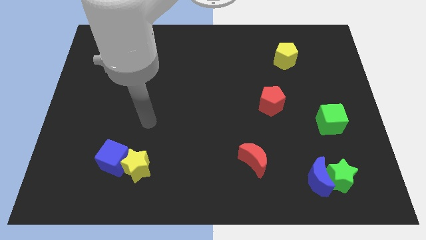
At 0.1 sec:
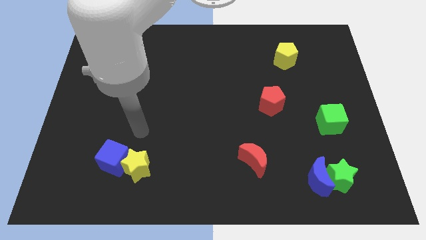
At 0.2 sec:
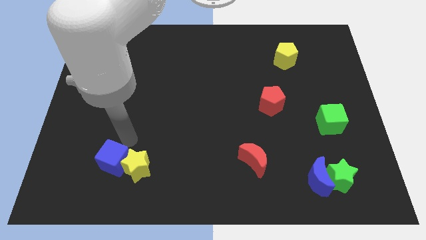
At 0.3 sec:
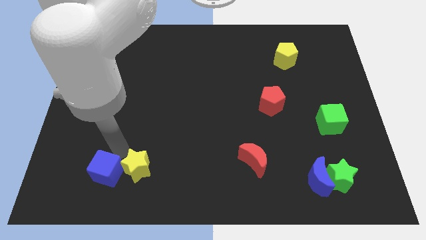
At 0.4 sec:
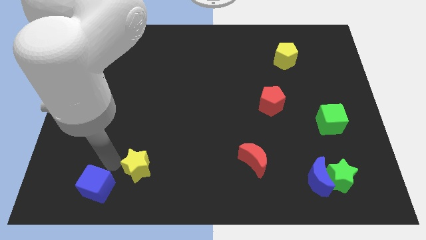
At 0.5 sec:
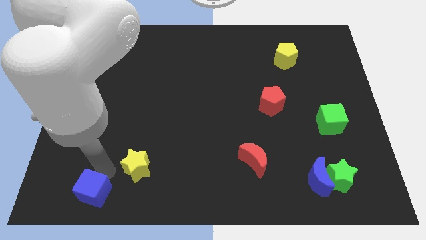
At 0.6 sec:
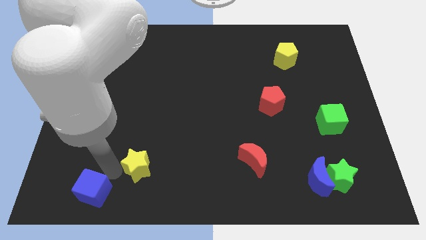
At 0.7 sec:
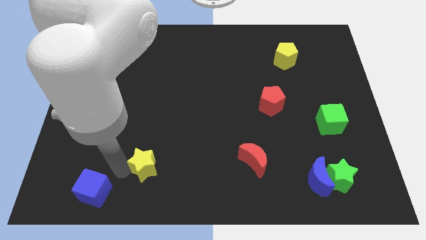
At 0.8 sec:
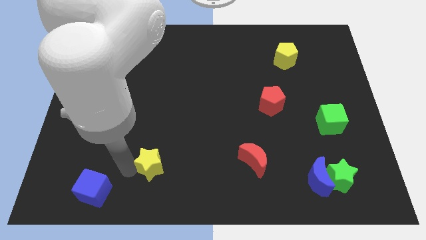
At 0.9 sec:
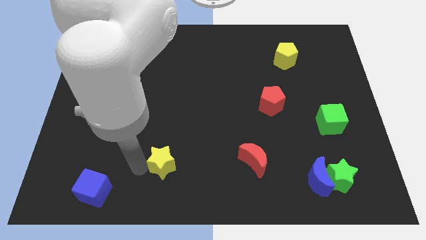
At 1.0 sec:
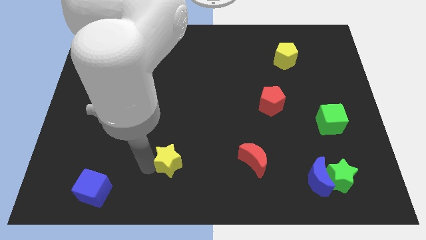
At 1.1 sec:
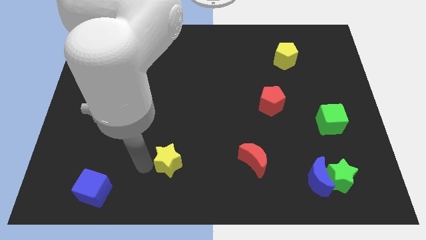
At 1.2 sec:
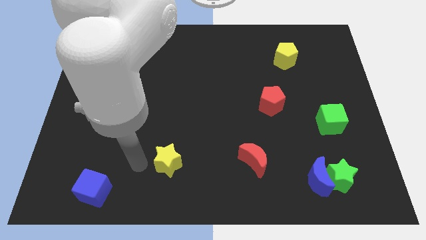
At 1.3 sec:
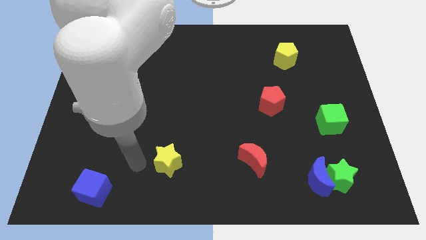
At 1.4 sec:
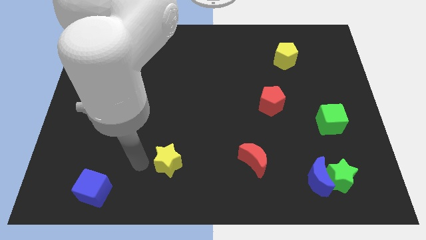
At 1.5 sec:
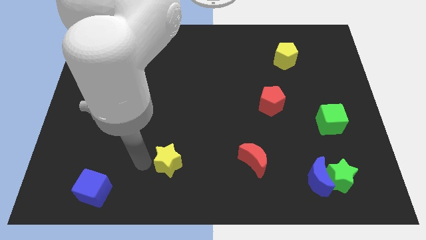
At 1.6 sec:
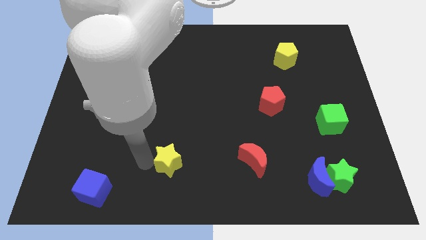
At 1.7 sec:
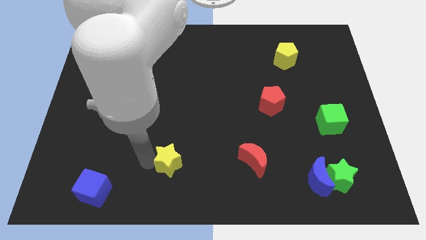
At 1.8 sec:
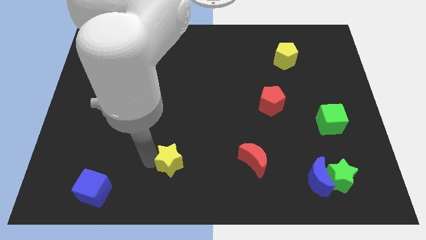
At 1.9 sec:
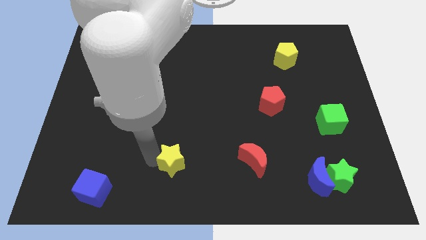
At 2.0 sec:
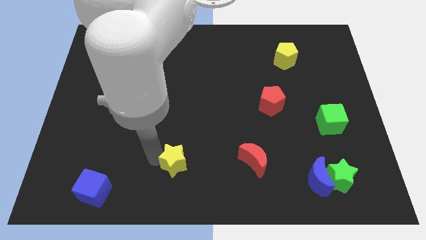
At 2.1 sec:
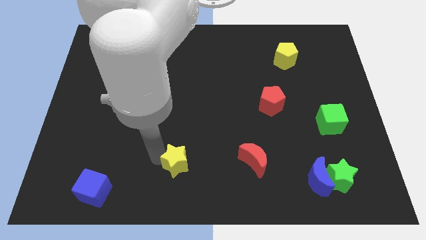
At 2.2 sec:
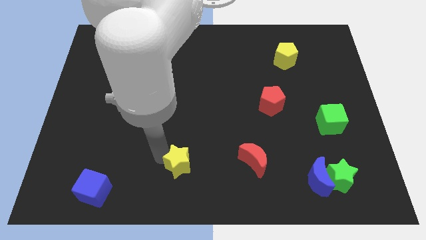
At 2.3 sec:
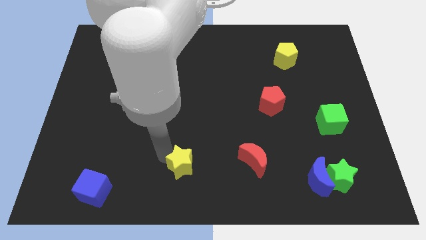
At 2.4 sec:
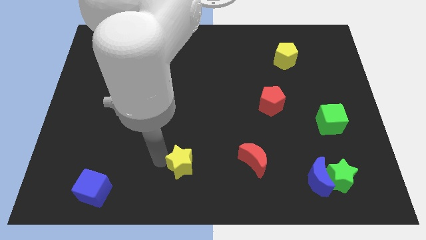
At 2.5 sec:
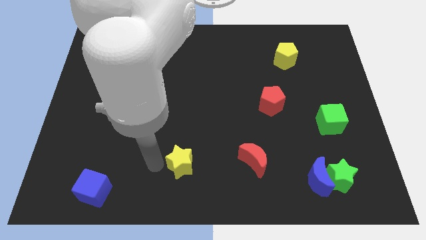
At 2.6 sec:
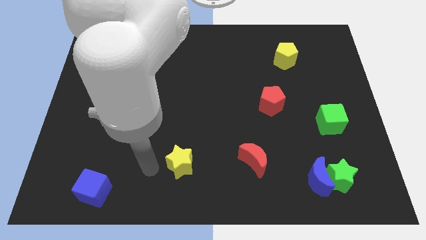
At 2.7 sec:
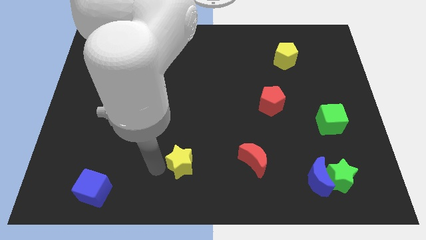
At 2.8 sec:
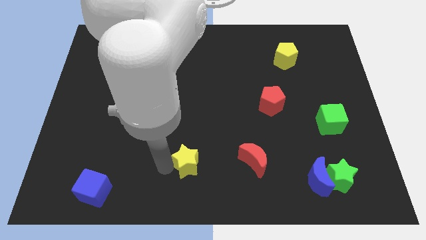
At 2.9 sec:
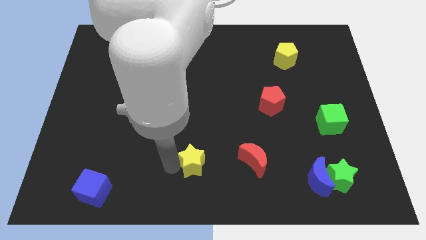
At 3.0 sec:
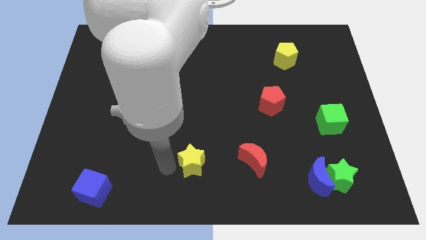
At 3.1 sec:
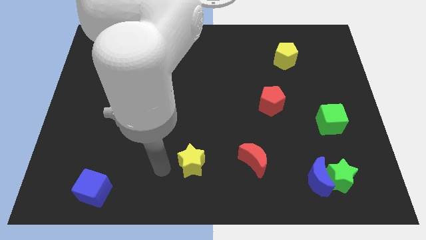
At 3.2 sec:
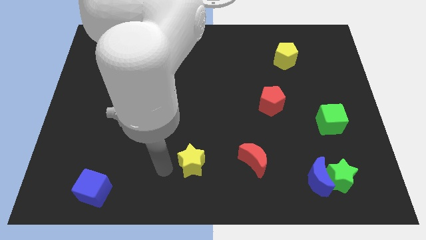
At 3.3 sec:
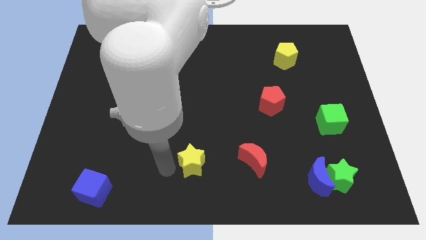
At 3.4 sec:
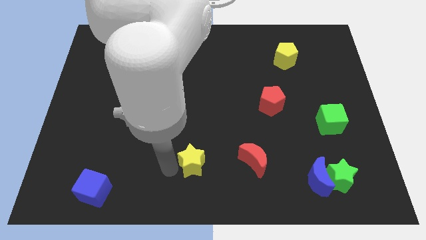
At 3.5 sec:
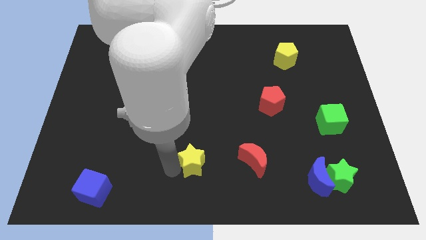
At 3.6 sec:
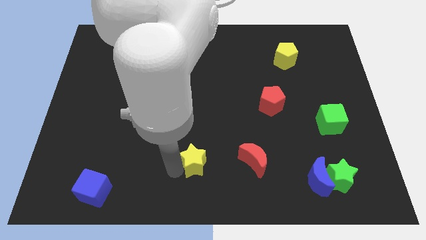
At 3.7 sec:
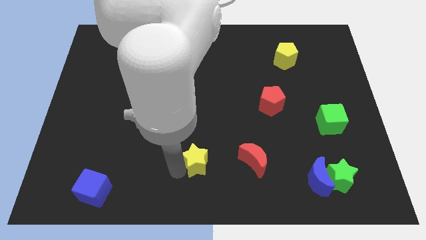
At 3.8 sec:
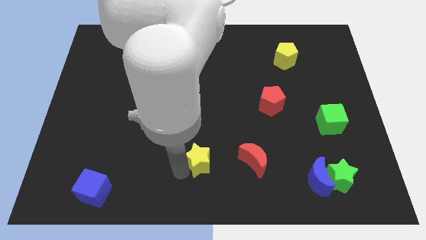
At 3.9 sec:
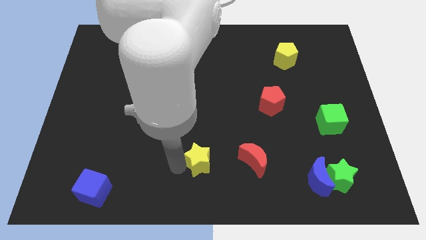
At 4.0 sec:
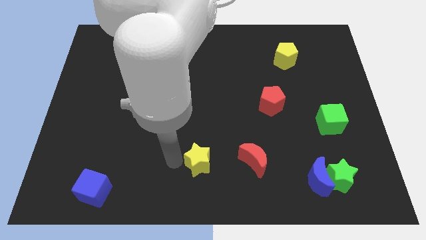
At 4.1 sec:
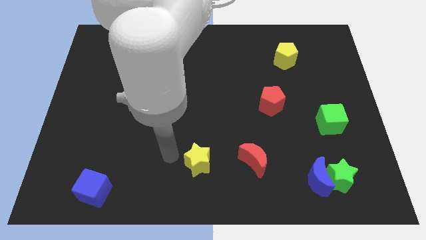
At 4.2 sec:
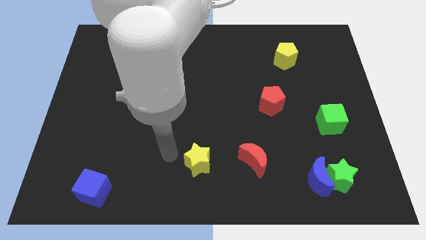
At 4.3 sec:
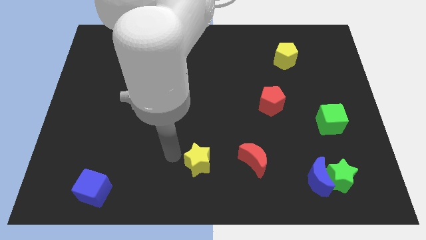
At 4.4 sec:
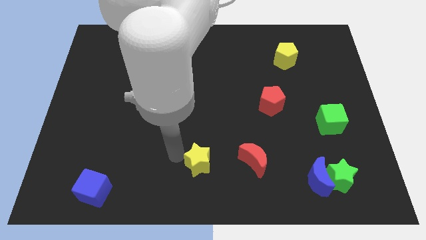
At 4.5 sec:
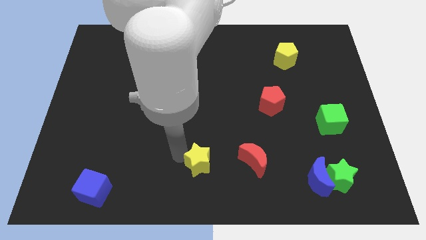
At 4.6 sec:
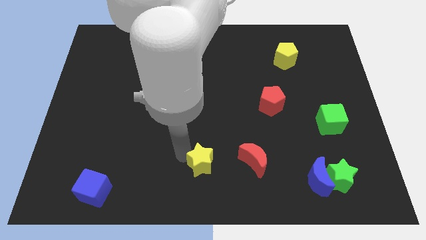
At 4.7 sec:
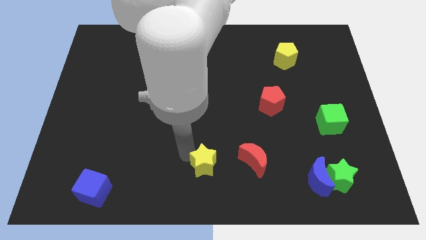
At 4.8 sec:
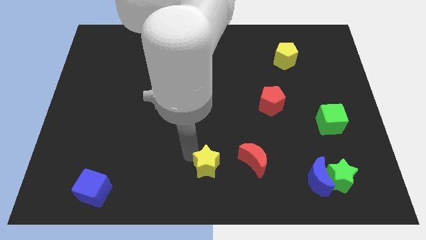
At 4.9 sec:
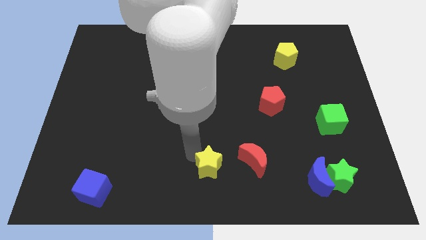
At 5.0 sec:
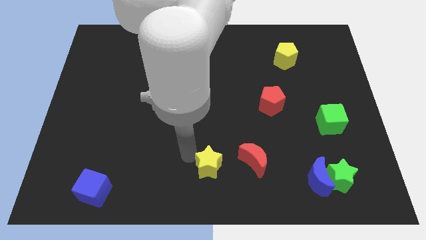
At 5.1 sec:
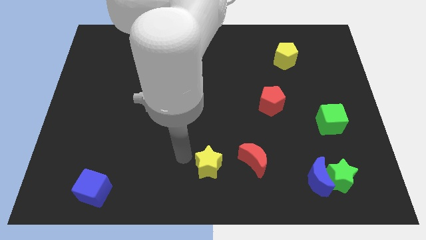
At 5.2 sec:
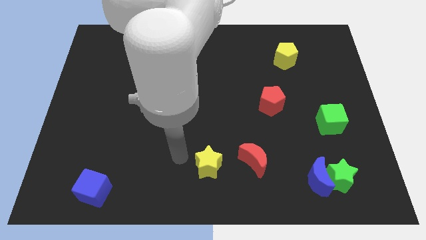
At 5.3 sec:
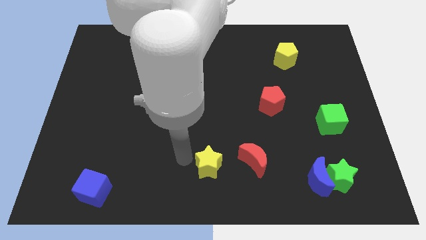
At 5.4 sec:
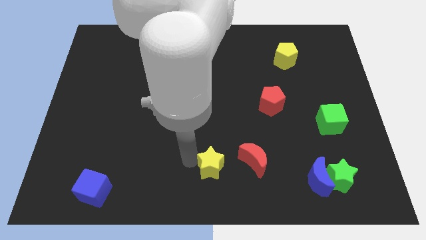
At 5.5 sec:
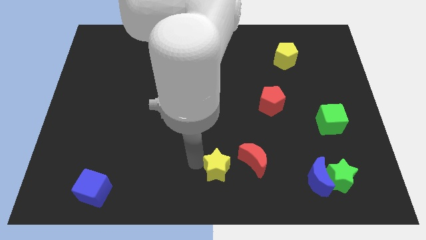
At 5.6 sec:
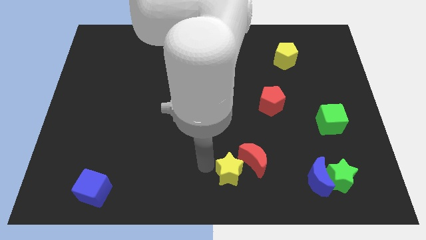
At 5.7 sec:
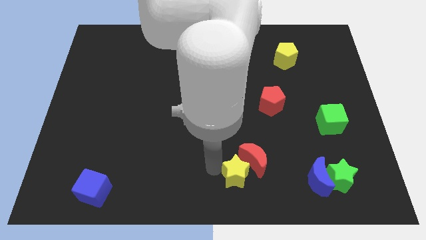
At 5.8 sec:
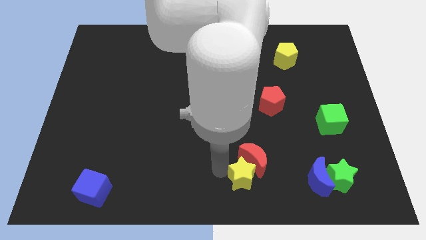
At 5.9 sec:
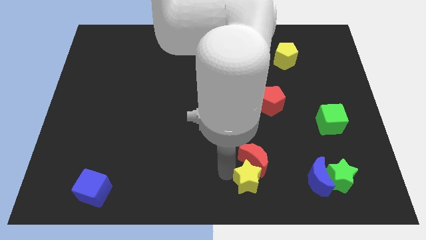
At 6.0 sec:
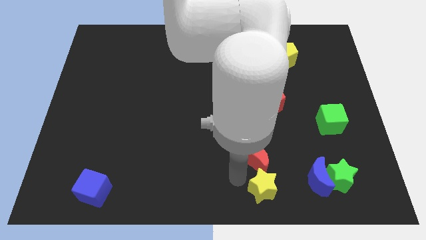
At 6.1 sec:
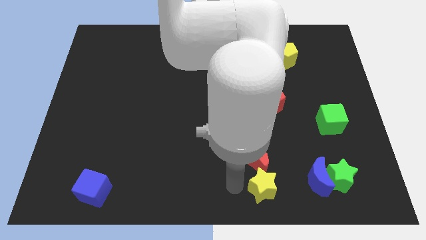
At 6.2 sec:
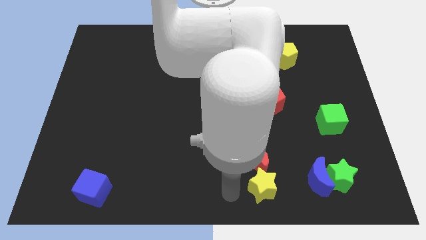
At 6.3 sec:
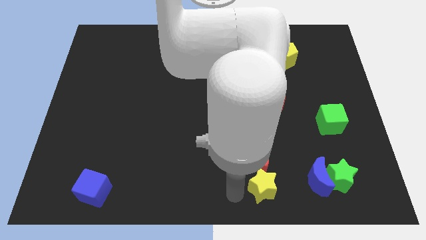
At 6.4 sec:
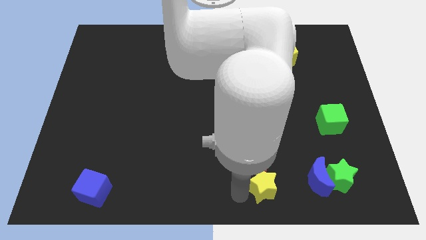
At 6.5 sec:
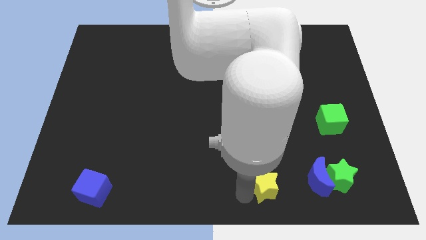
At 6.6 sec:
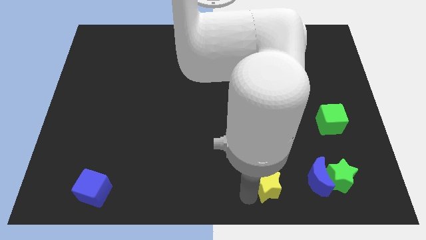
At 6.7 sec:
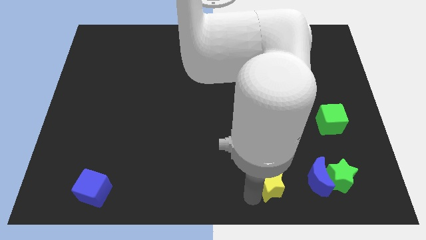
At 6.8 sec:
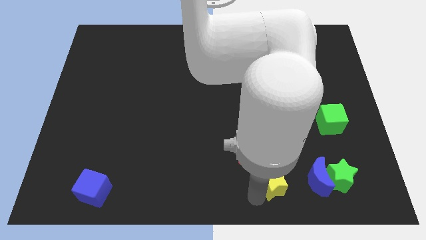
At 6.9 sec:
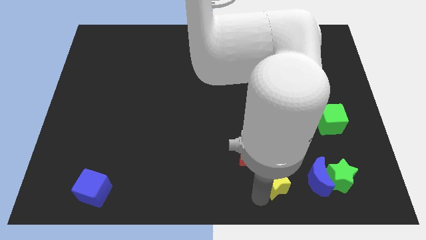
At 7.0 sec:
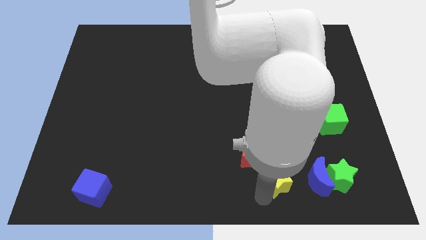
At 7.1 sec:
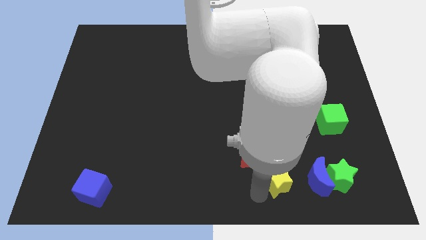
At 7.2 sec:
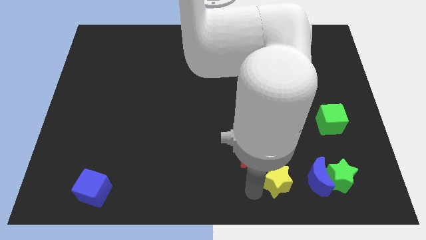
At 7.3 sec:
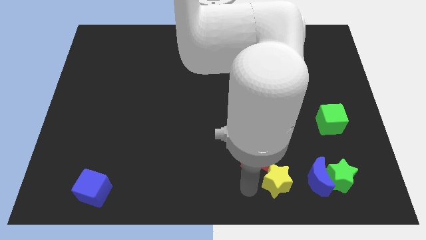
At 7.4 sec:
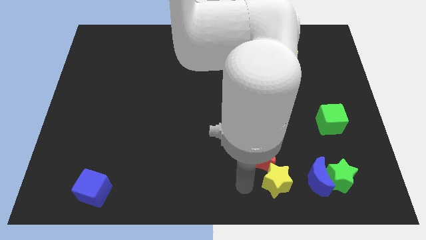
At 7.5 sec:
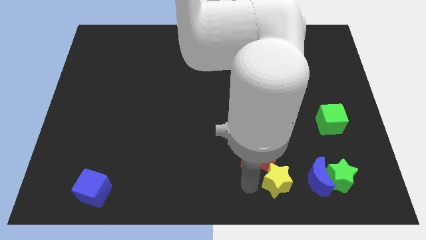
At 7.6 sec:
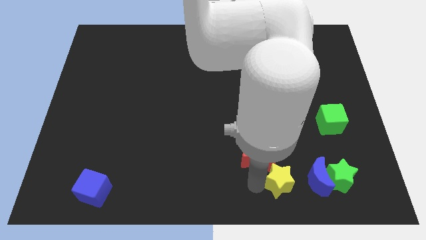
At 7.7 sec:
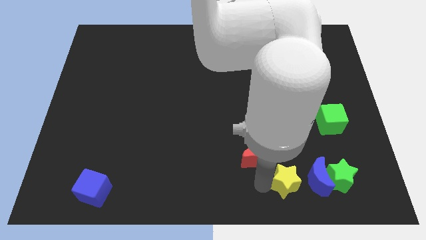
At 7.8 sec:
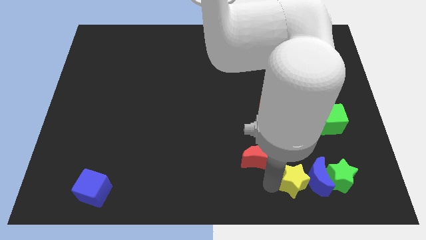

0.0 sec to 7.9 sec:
move the yellow star towards the blue moon

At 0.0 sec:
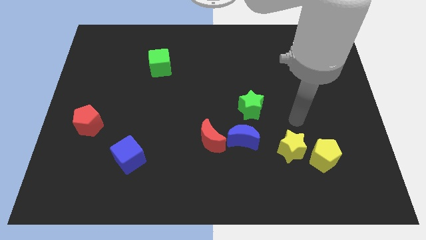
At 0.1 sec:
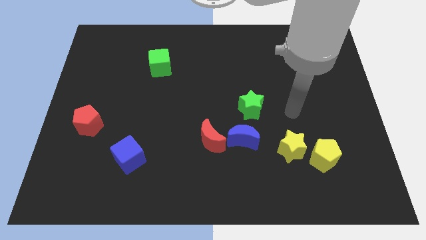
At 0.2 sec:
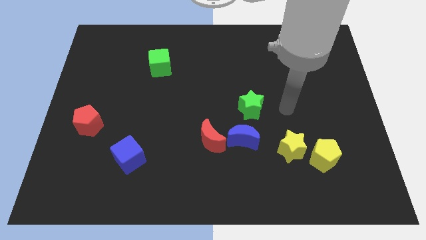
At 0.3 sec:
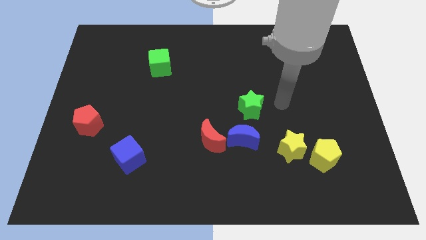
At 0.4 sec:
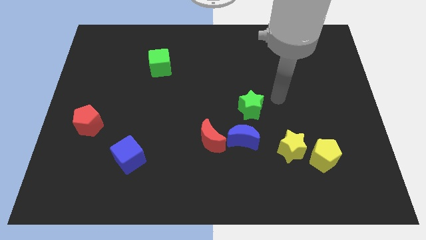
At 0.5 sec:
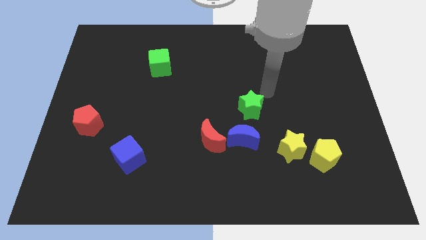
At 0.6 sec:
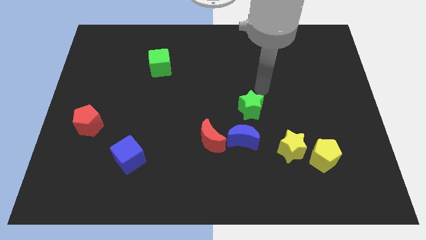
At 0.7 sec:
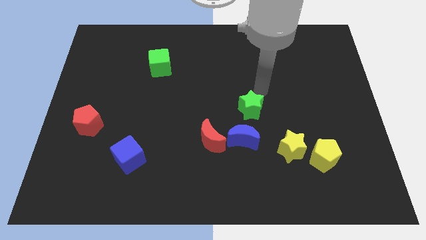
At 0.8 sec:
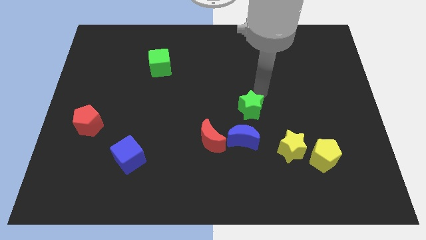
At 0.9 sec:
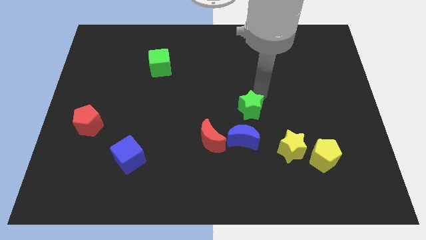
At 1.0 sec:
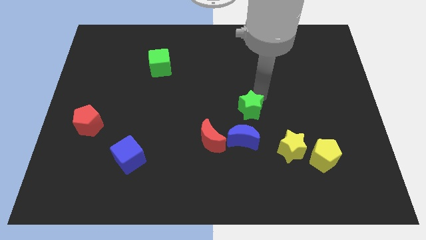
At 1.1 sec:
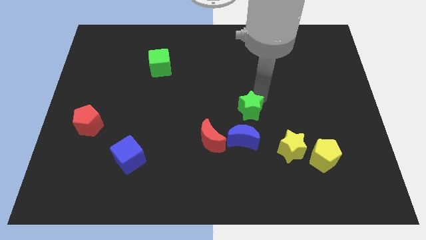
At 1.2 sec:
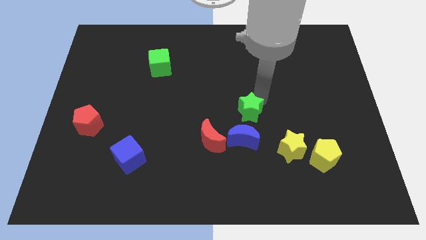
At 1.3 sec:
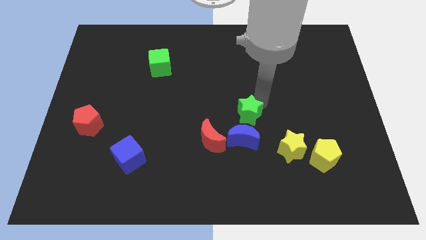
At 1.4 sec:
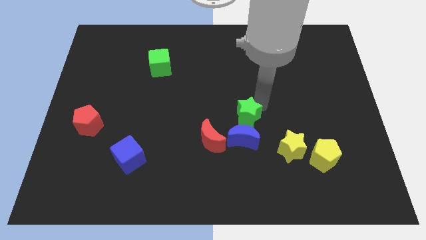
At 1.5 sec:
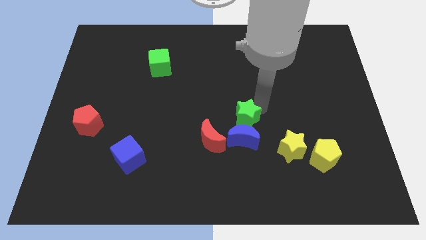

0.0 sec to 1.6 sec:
put the green star next to the blue moon
